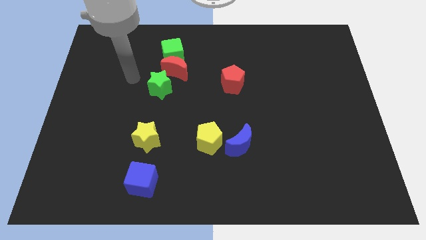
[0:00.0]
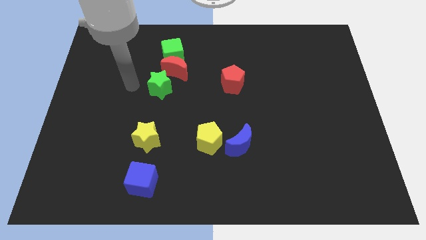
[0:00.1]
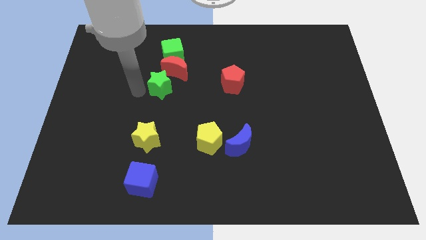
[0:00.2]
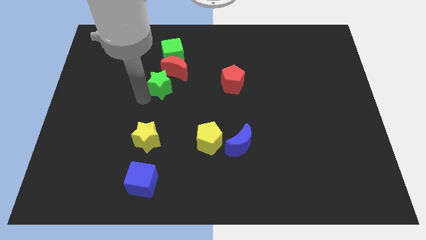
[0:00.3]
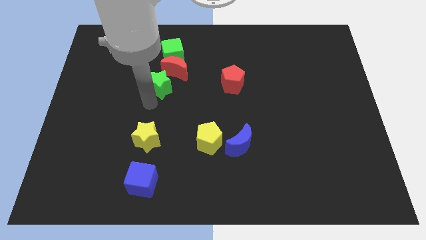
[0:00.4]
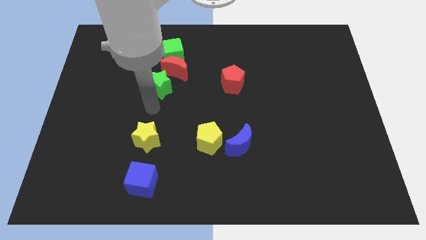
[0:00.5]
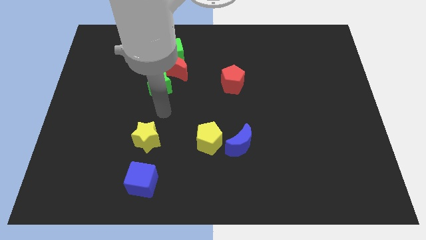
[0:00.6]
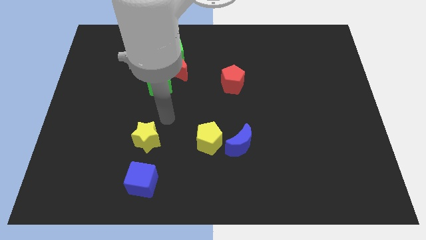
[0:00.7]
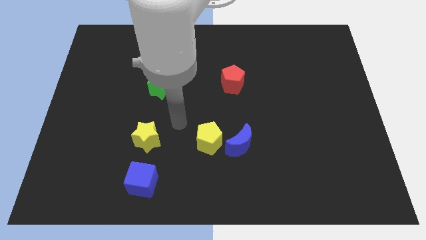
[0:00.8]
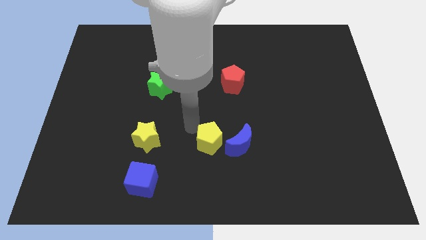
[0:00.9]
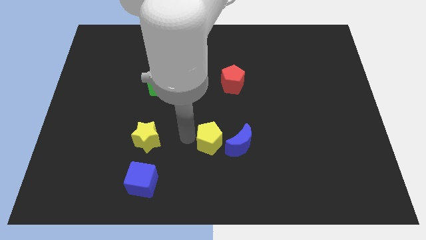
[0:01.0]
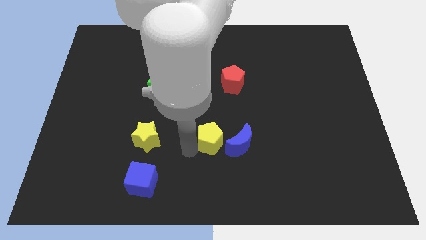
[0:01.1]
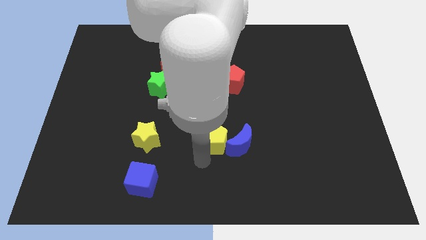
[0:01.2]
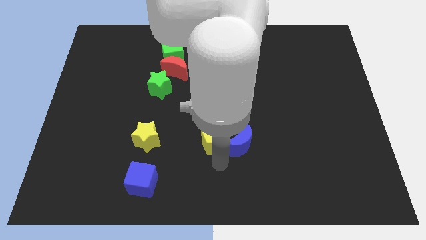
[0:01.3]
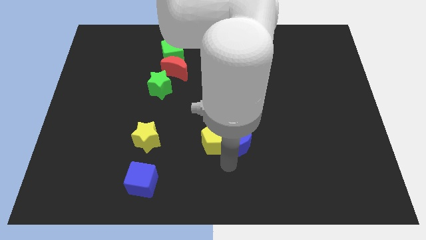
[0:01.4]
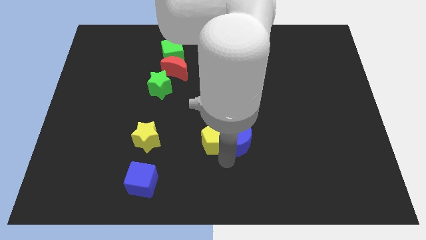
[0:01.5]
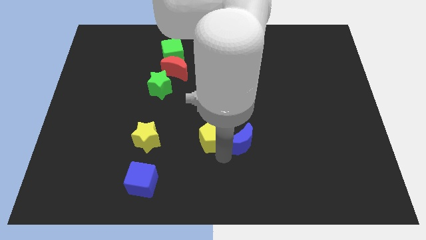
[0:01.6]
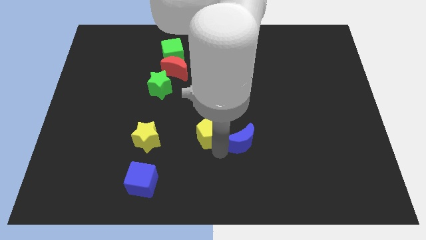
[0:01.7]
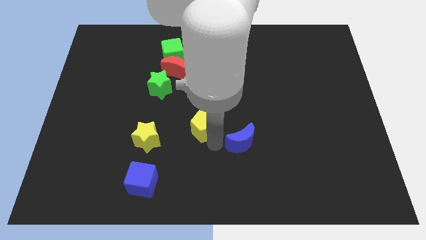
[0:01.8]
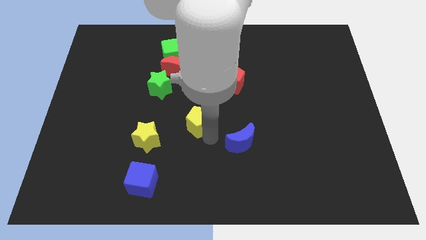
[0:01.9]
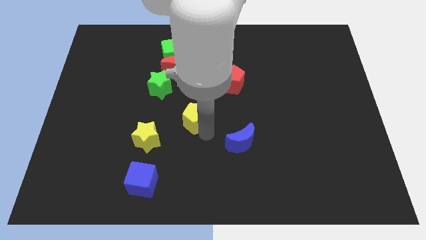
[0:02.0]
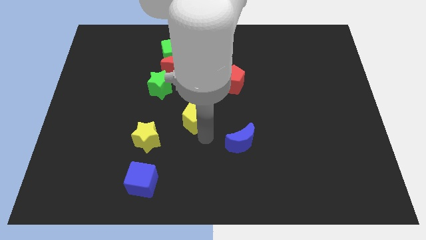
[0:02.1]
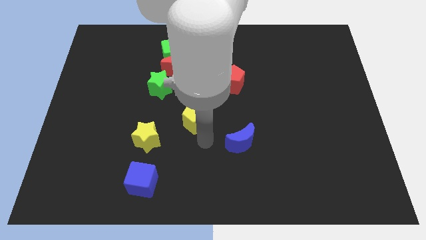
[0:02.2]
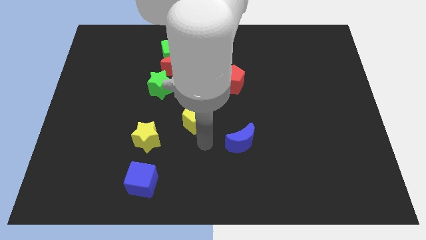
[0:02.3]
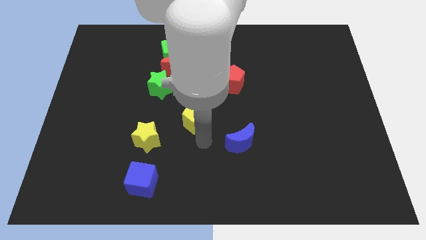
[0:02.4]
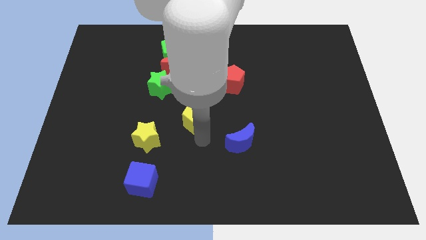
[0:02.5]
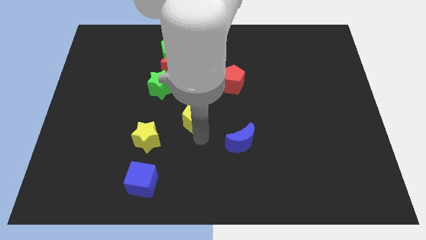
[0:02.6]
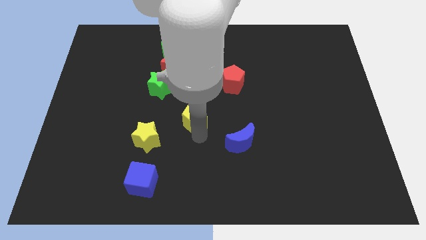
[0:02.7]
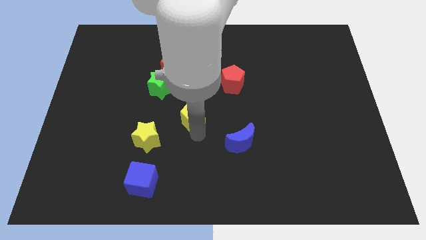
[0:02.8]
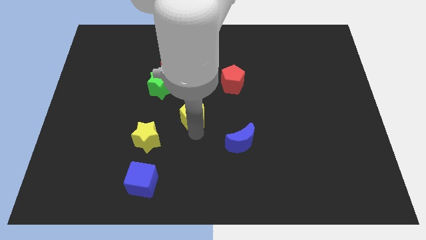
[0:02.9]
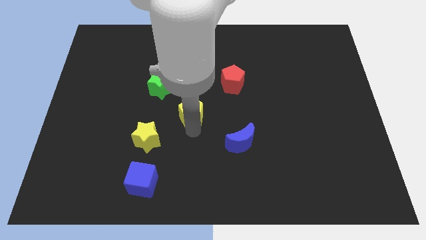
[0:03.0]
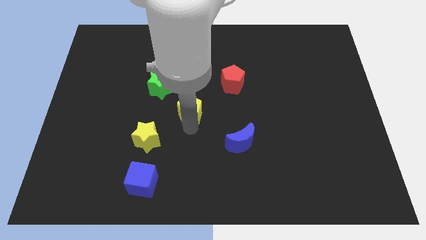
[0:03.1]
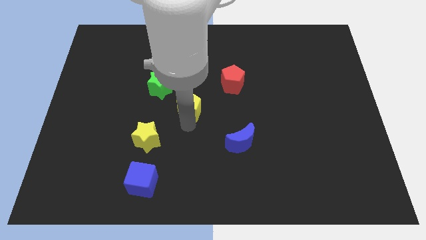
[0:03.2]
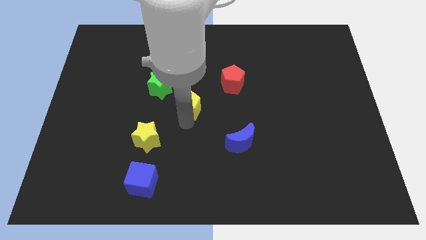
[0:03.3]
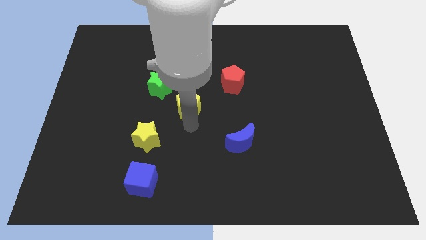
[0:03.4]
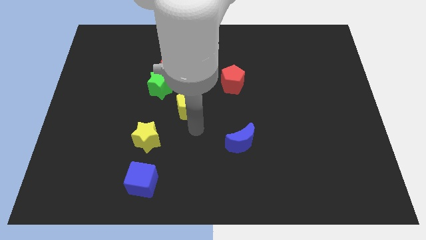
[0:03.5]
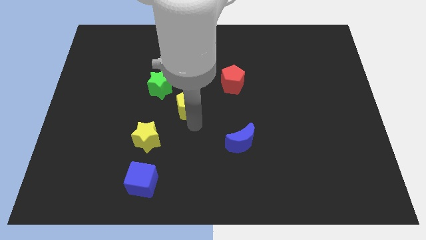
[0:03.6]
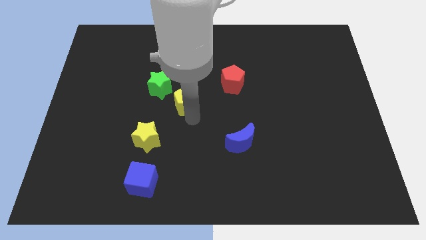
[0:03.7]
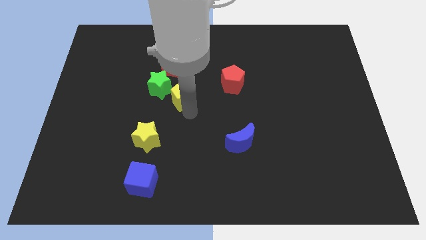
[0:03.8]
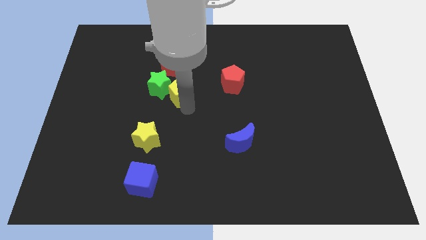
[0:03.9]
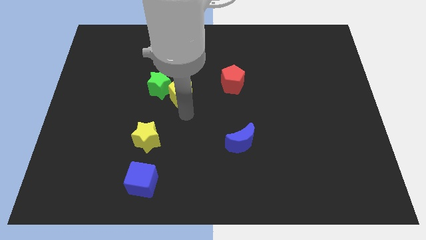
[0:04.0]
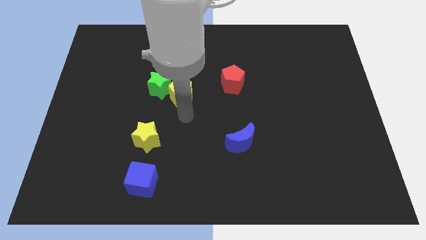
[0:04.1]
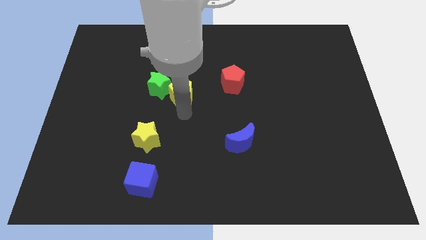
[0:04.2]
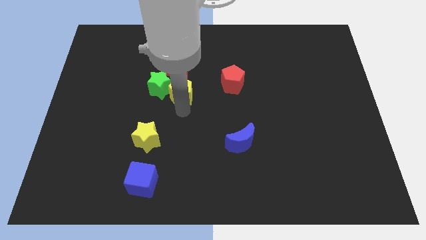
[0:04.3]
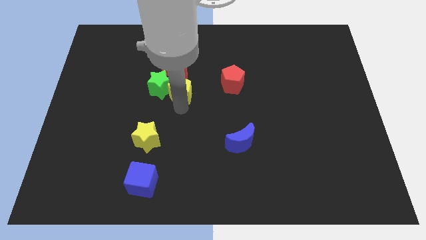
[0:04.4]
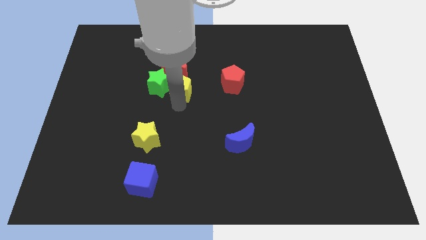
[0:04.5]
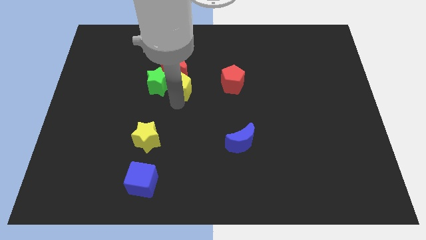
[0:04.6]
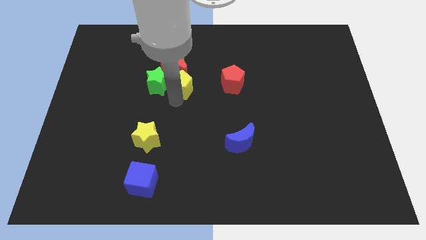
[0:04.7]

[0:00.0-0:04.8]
move the yellow pentagon to the red moon

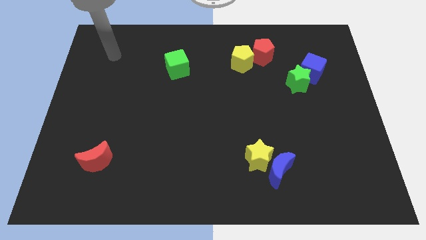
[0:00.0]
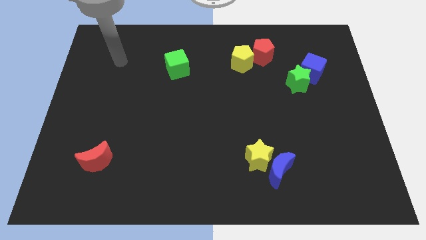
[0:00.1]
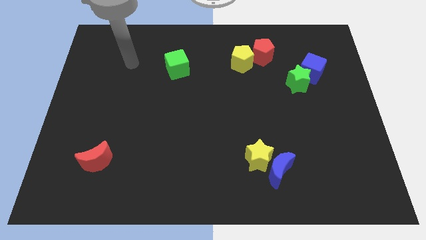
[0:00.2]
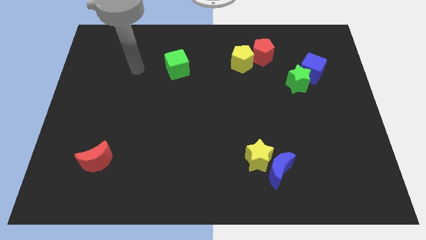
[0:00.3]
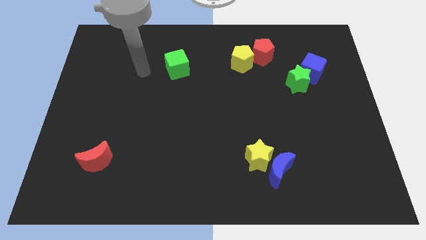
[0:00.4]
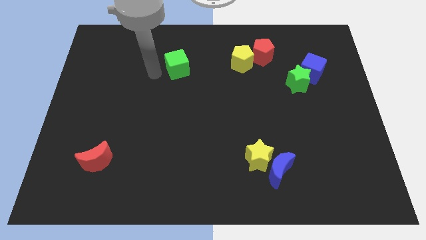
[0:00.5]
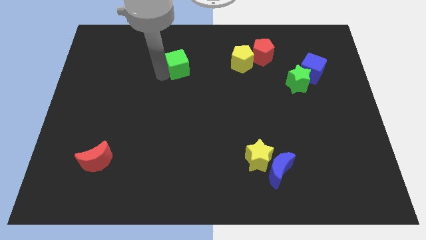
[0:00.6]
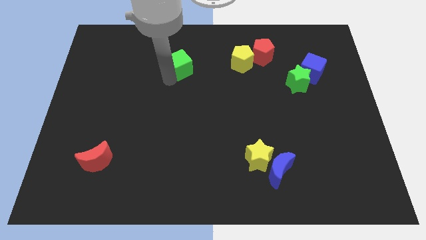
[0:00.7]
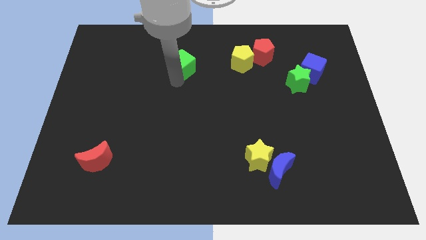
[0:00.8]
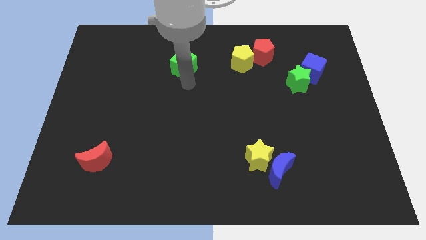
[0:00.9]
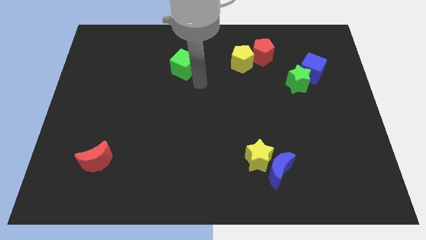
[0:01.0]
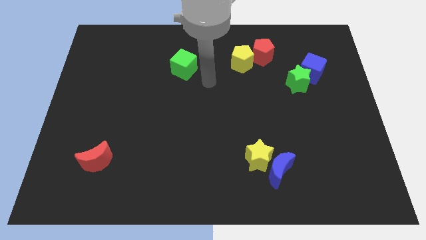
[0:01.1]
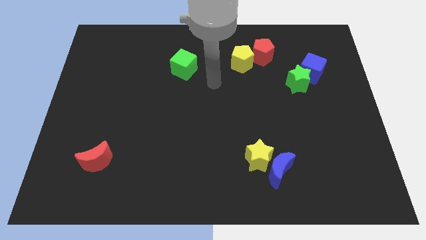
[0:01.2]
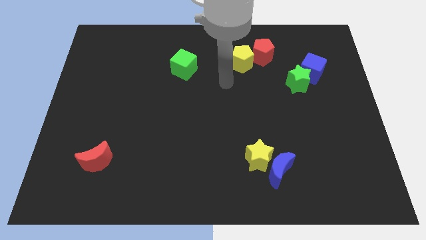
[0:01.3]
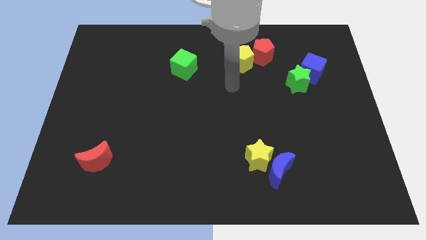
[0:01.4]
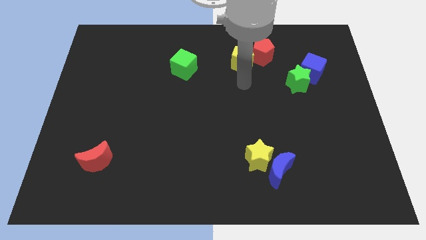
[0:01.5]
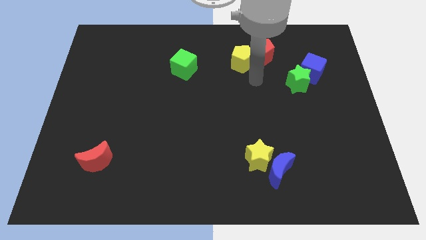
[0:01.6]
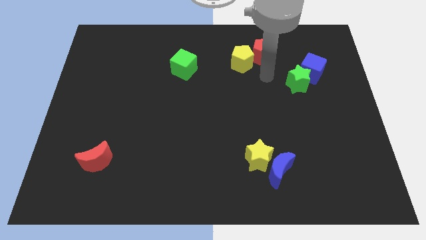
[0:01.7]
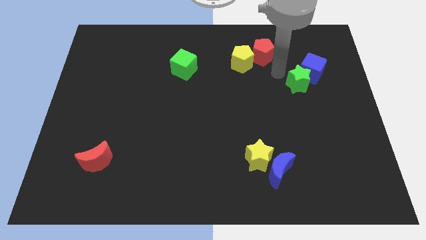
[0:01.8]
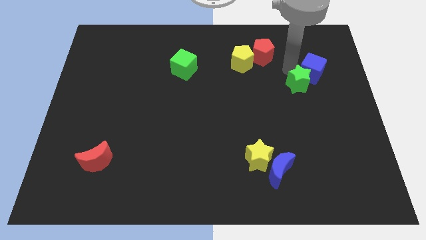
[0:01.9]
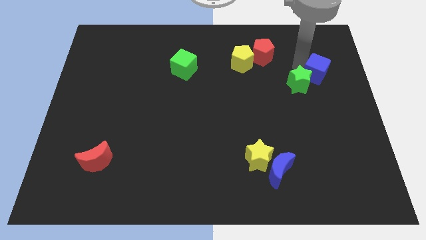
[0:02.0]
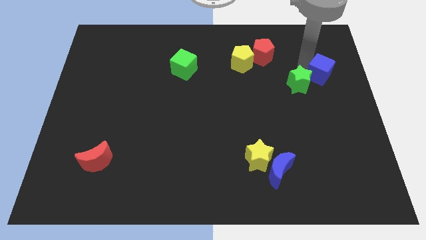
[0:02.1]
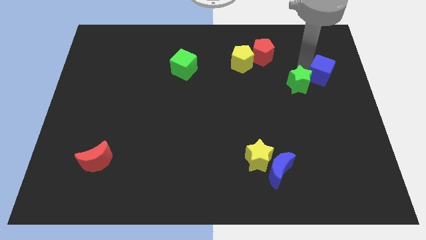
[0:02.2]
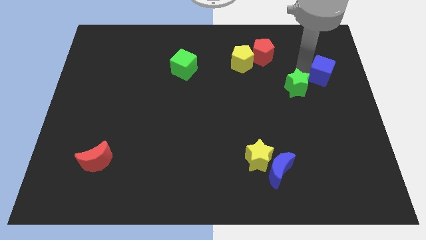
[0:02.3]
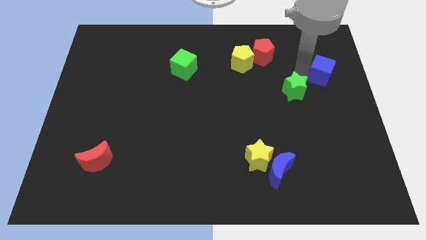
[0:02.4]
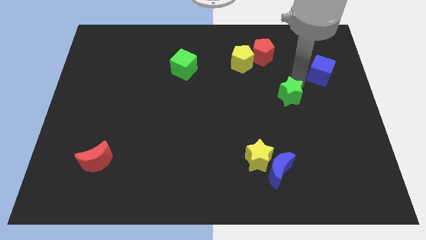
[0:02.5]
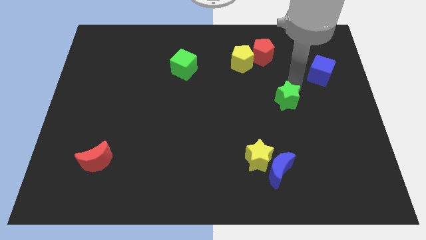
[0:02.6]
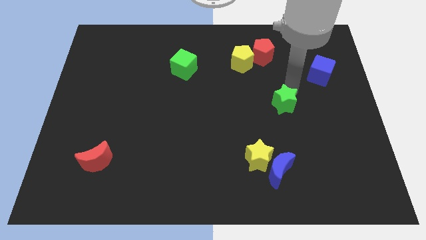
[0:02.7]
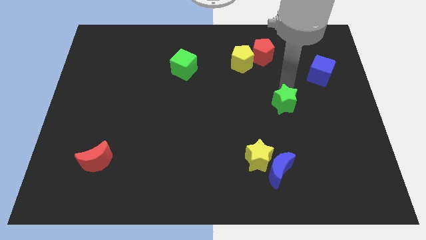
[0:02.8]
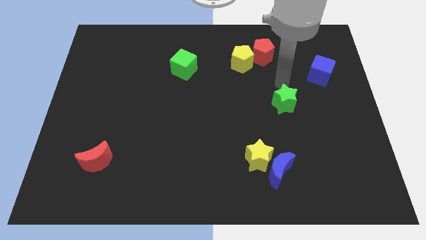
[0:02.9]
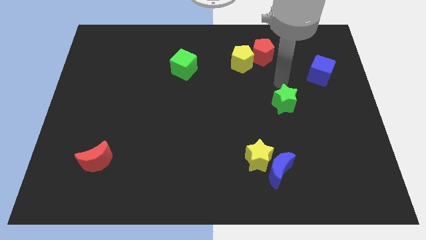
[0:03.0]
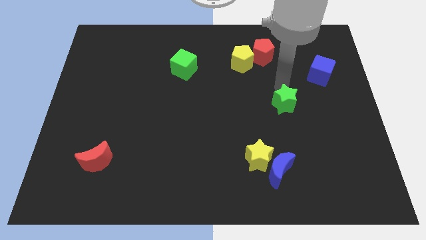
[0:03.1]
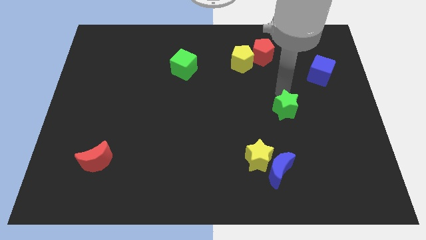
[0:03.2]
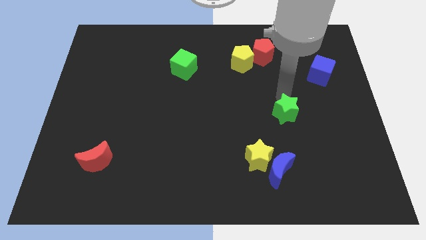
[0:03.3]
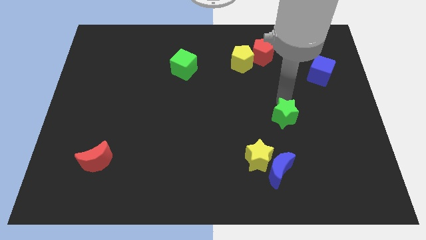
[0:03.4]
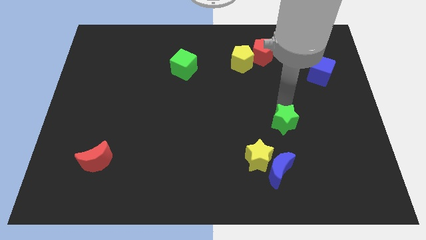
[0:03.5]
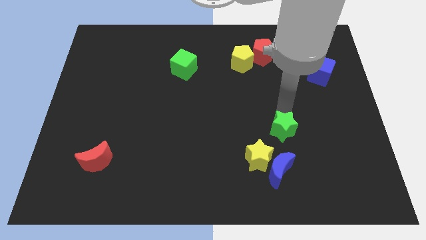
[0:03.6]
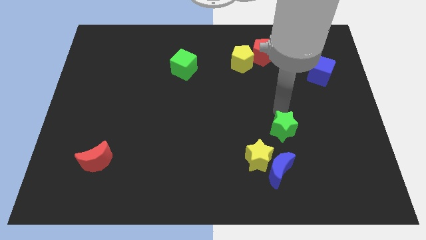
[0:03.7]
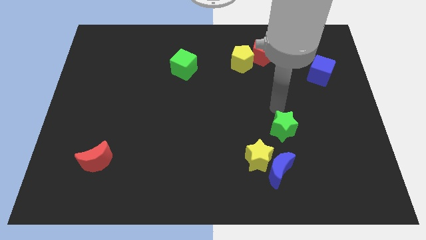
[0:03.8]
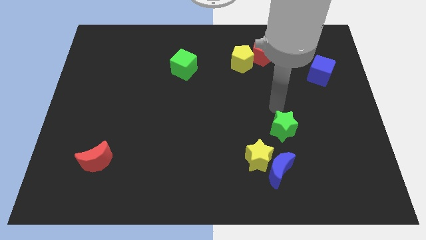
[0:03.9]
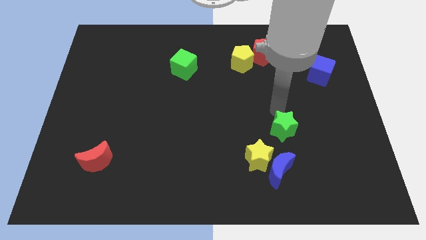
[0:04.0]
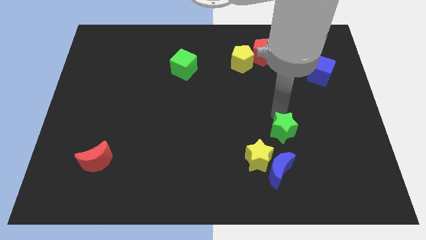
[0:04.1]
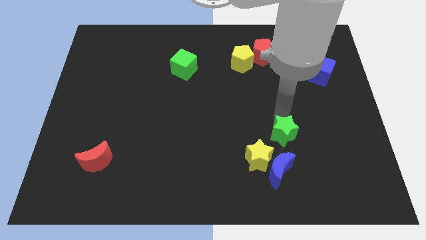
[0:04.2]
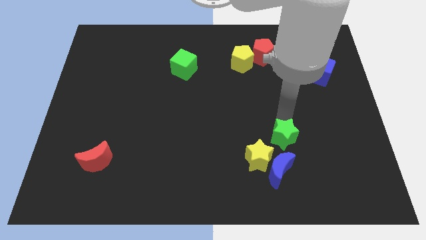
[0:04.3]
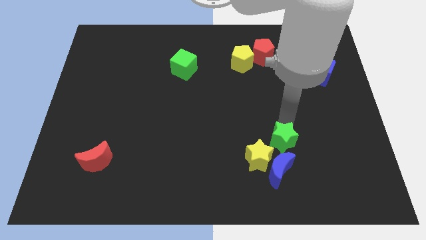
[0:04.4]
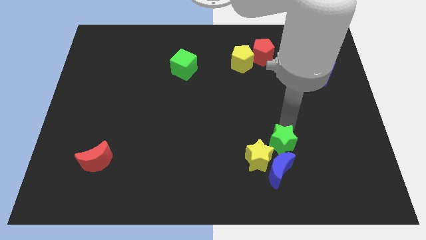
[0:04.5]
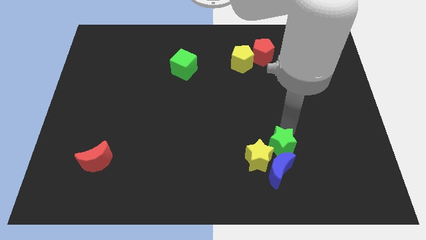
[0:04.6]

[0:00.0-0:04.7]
push the green star close to the blue moon
